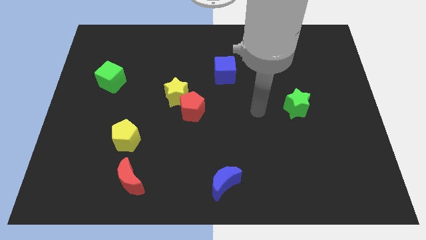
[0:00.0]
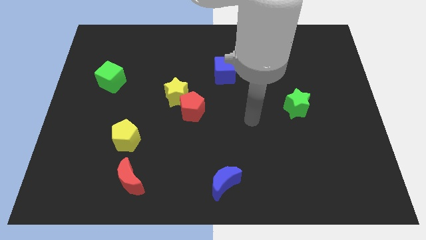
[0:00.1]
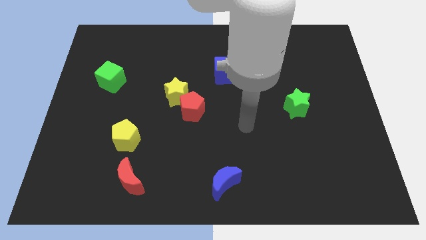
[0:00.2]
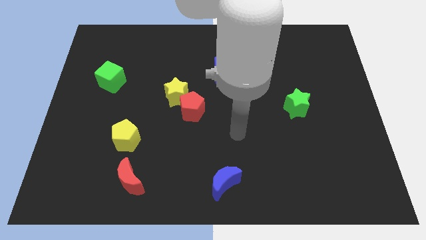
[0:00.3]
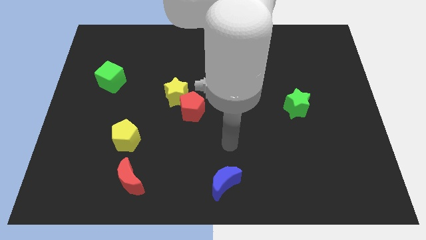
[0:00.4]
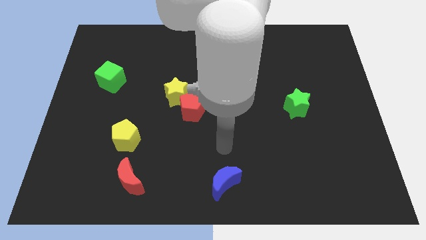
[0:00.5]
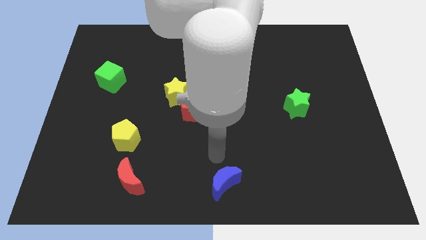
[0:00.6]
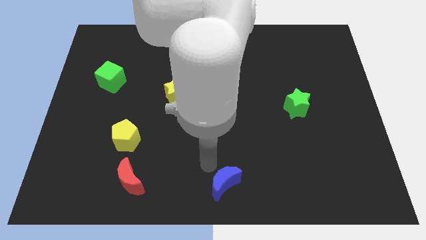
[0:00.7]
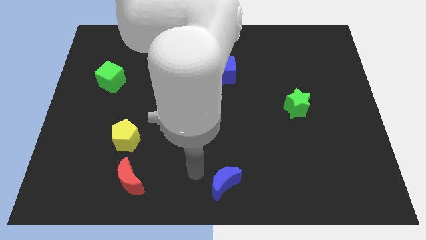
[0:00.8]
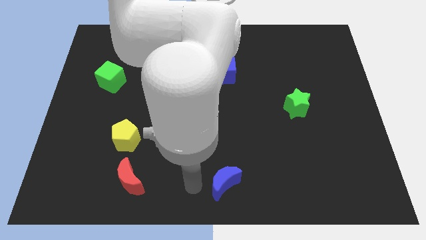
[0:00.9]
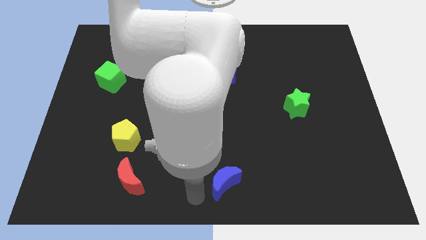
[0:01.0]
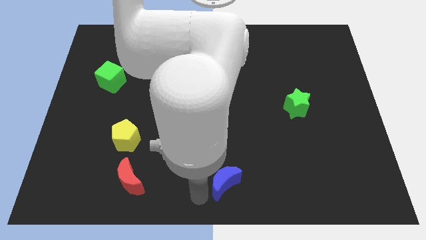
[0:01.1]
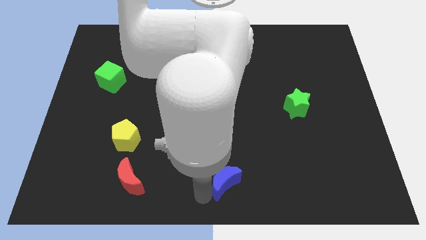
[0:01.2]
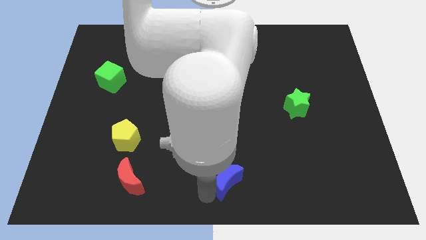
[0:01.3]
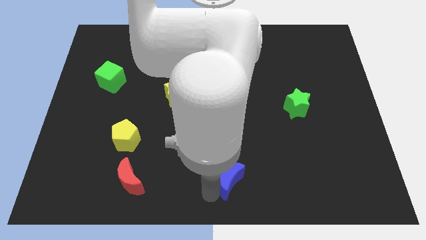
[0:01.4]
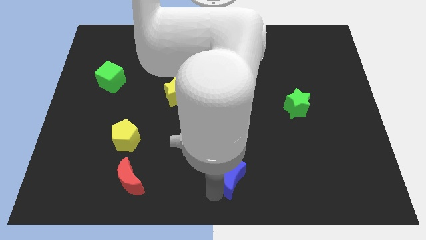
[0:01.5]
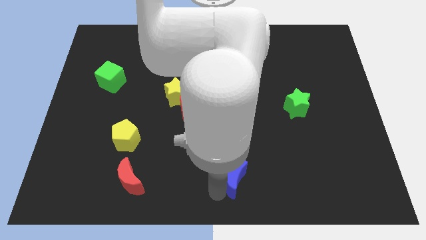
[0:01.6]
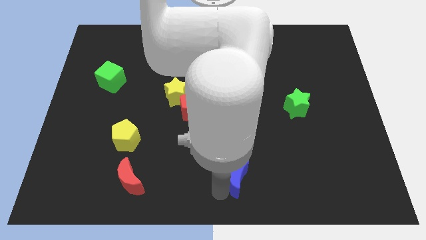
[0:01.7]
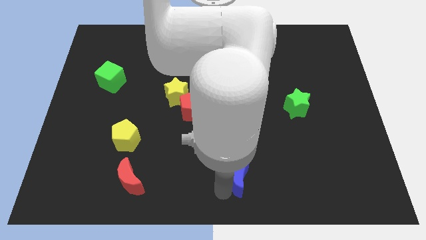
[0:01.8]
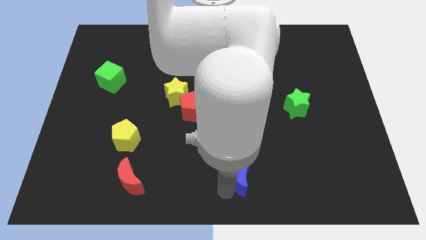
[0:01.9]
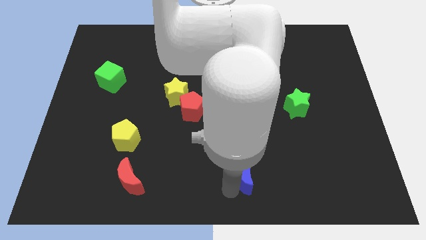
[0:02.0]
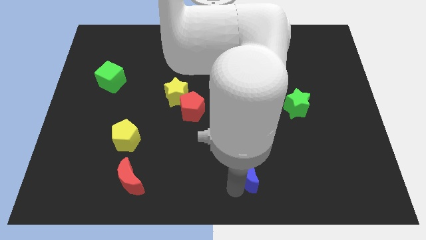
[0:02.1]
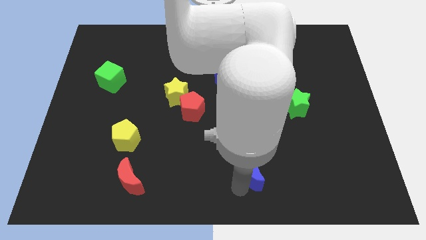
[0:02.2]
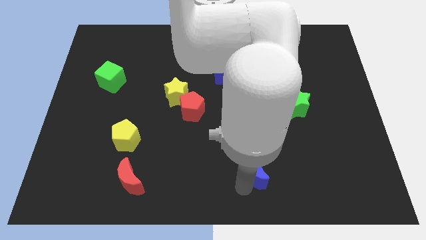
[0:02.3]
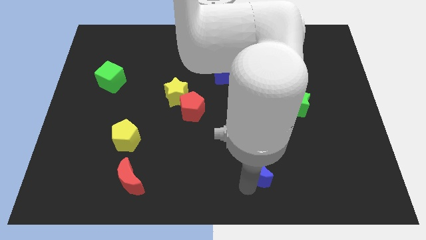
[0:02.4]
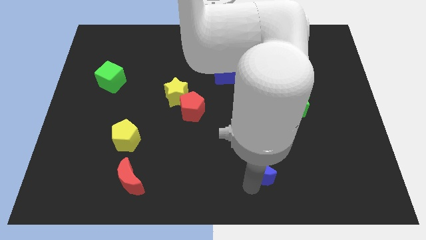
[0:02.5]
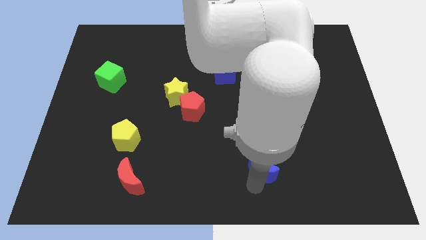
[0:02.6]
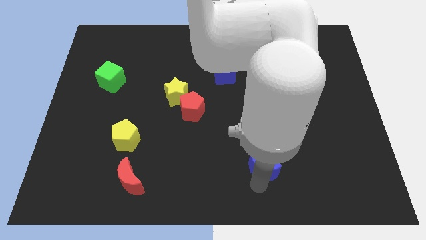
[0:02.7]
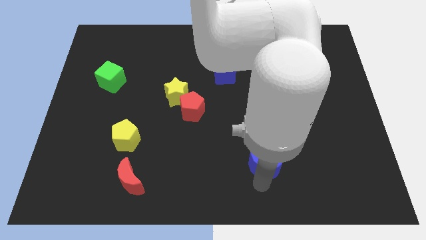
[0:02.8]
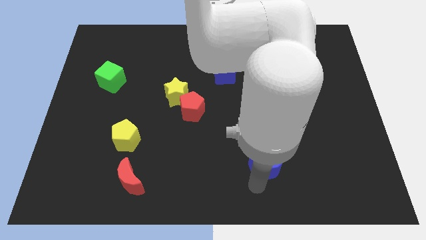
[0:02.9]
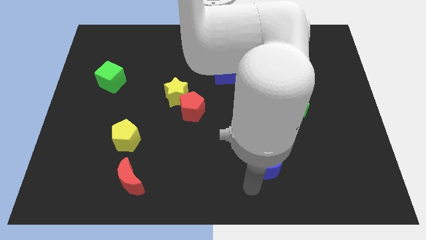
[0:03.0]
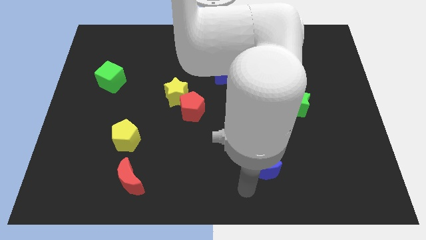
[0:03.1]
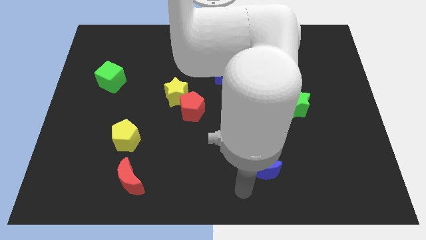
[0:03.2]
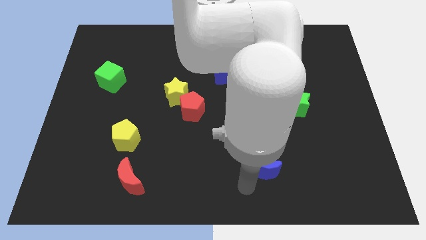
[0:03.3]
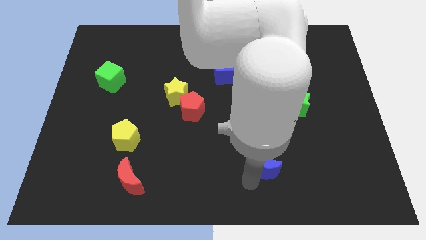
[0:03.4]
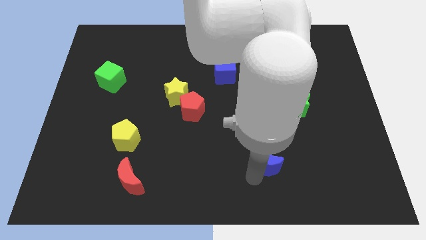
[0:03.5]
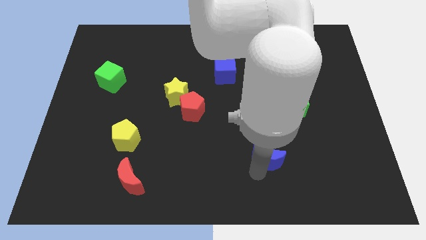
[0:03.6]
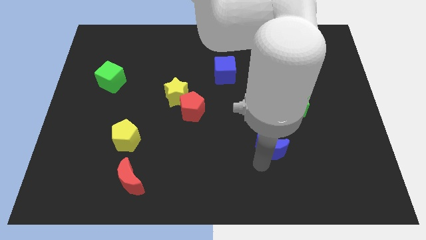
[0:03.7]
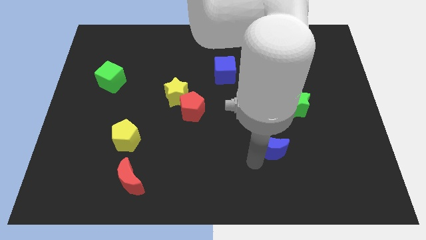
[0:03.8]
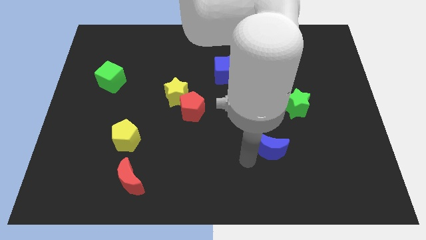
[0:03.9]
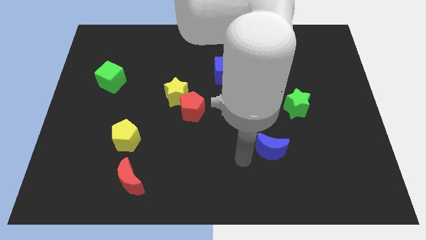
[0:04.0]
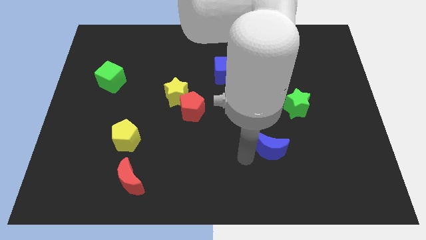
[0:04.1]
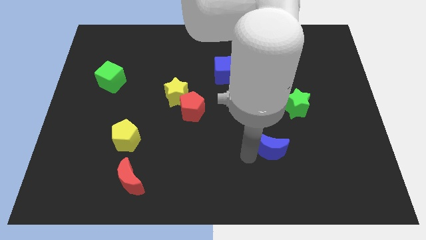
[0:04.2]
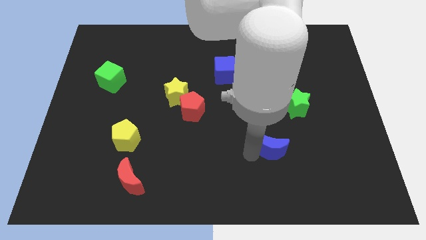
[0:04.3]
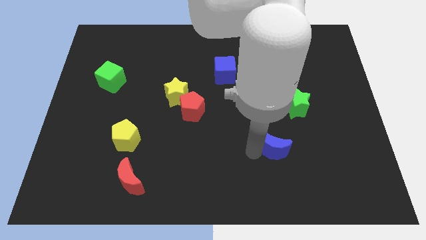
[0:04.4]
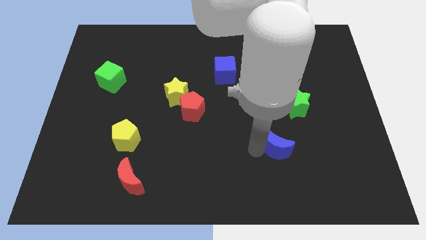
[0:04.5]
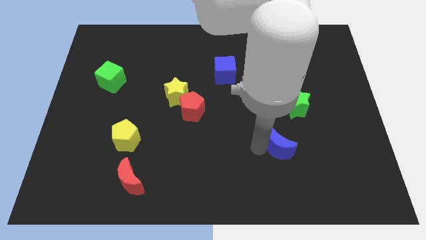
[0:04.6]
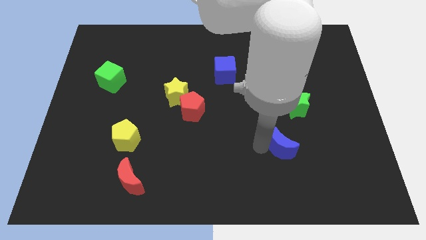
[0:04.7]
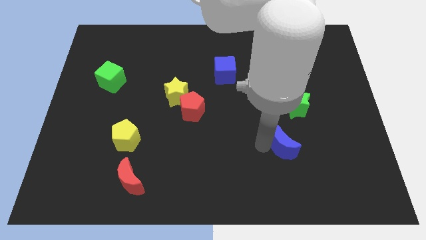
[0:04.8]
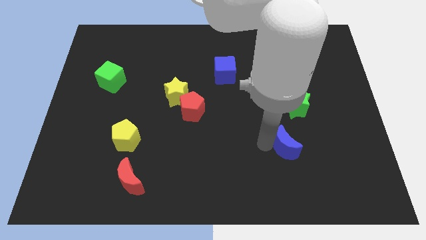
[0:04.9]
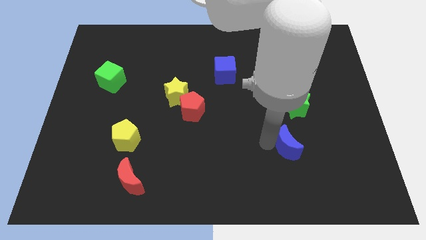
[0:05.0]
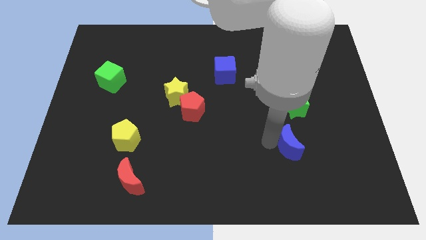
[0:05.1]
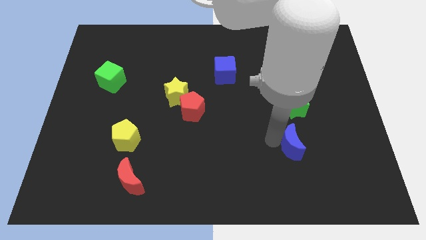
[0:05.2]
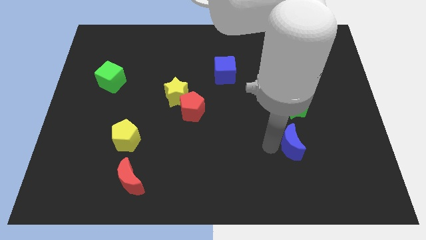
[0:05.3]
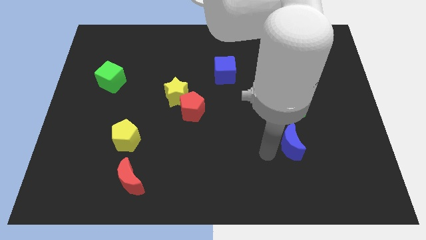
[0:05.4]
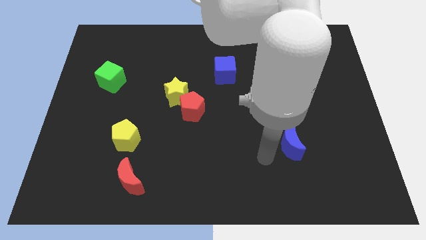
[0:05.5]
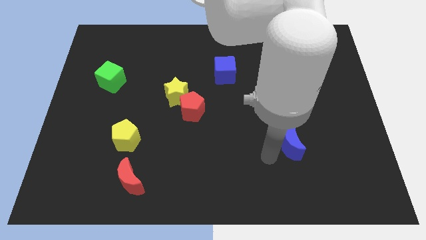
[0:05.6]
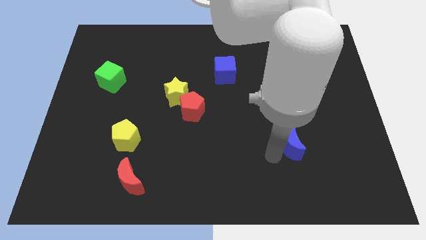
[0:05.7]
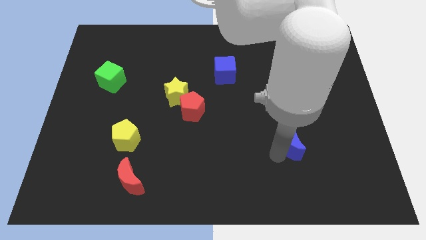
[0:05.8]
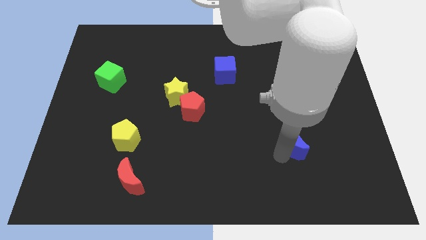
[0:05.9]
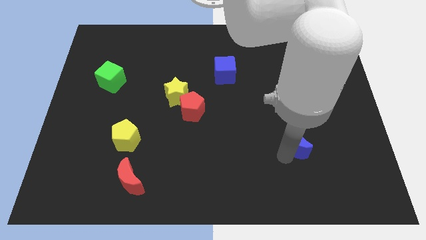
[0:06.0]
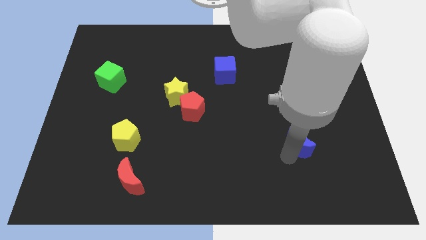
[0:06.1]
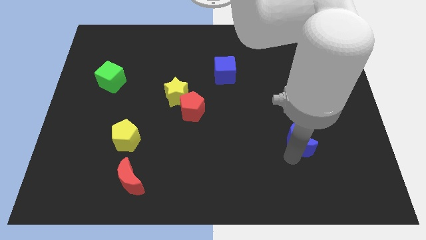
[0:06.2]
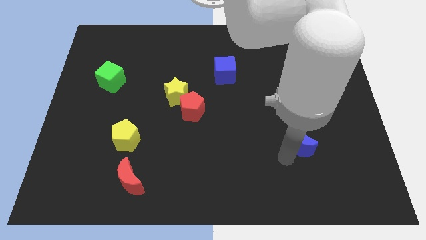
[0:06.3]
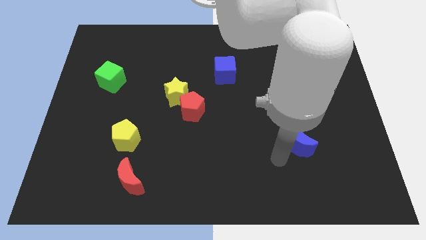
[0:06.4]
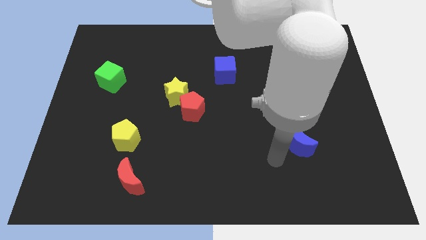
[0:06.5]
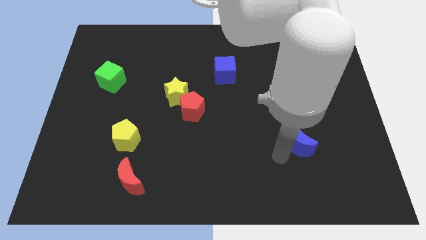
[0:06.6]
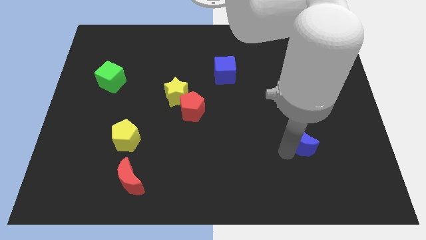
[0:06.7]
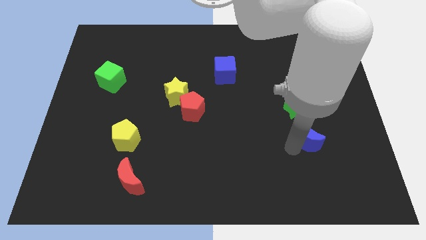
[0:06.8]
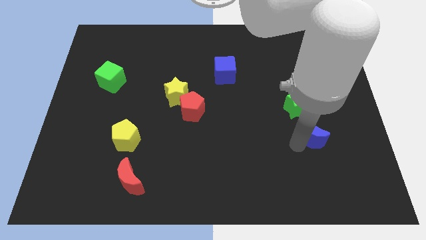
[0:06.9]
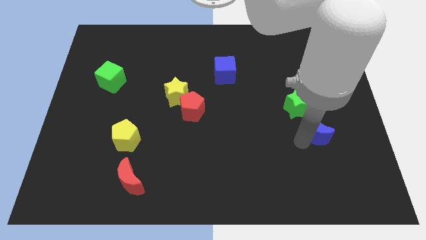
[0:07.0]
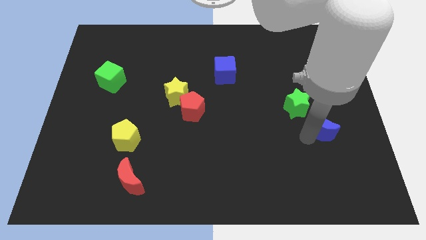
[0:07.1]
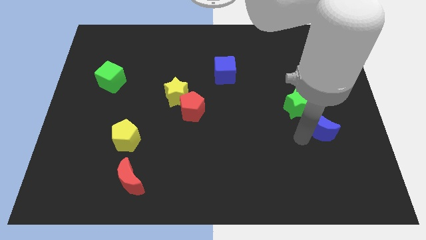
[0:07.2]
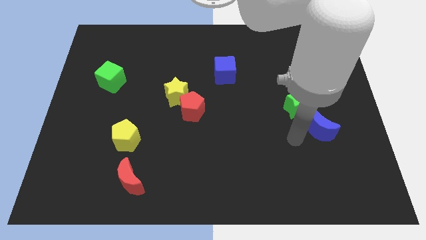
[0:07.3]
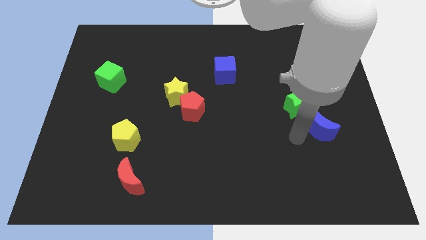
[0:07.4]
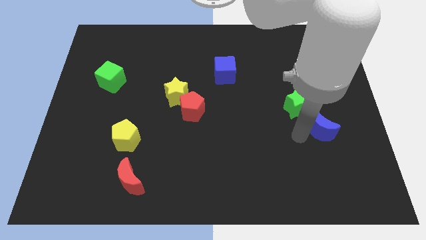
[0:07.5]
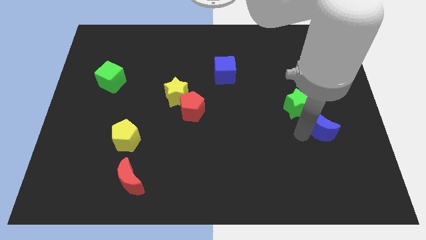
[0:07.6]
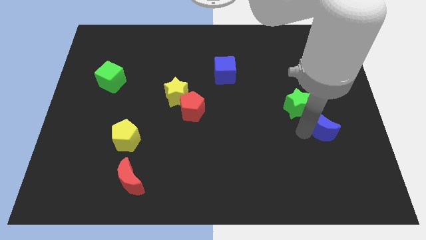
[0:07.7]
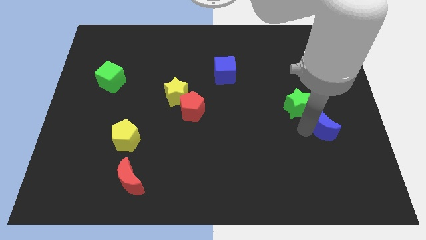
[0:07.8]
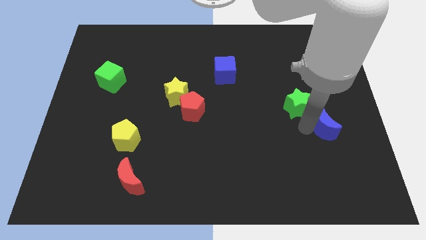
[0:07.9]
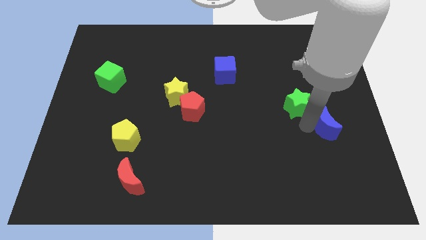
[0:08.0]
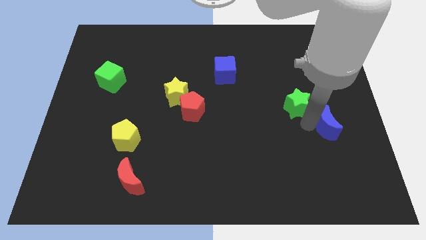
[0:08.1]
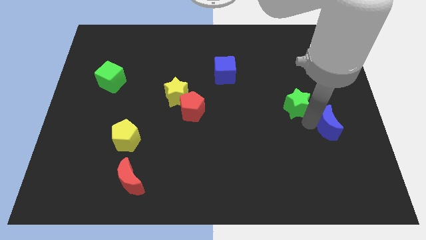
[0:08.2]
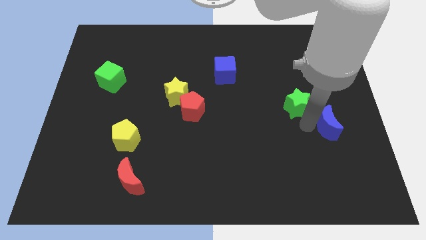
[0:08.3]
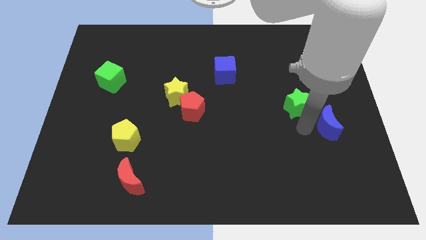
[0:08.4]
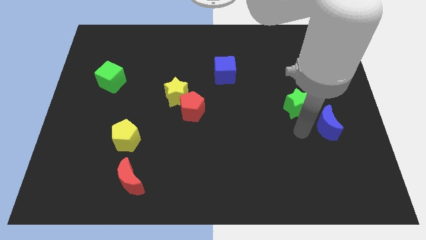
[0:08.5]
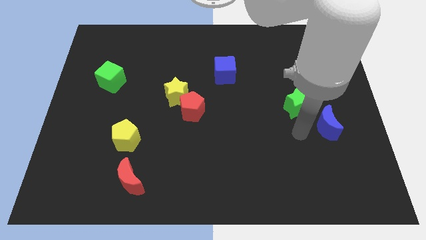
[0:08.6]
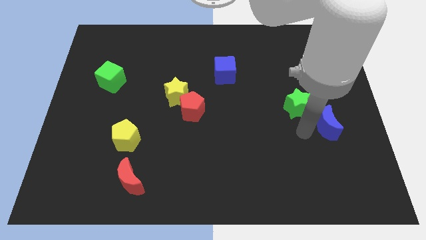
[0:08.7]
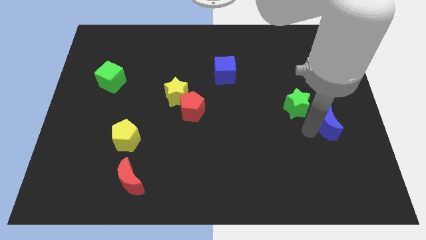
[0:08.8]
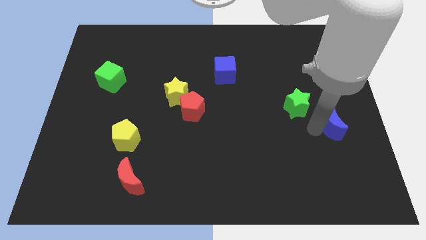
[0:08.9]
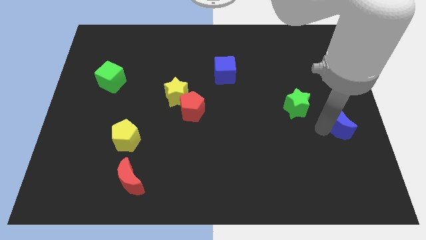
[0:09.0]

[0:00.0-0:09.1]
slide the blue moon to the right side of the board
